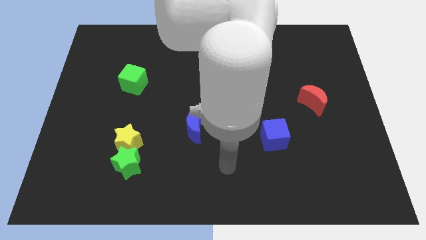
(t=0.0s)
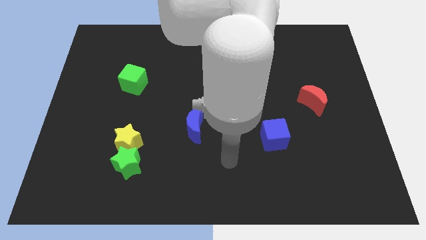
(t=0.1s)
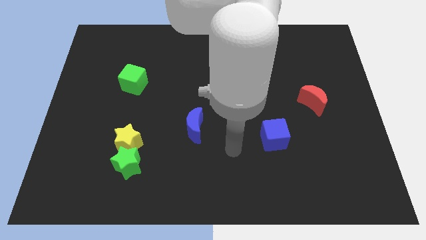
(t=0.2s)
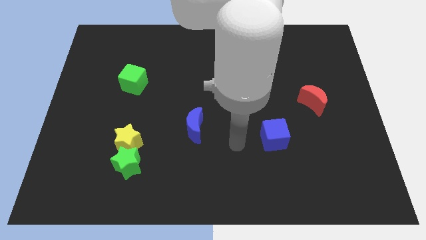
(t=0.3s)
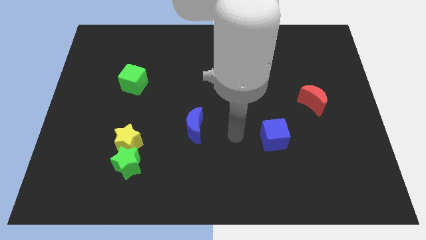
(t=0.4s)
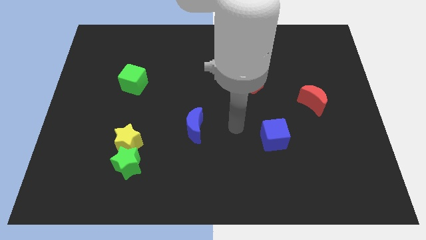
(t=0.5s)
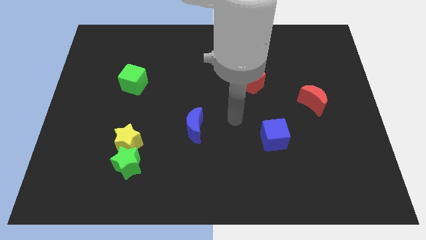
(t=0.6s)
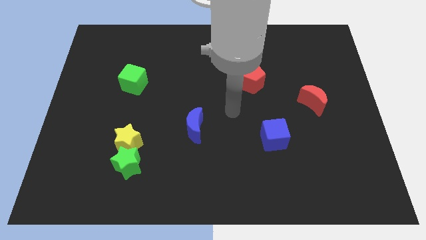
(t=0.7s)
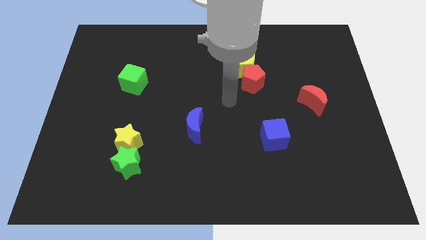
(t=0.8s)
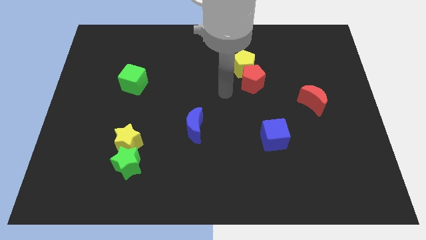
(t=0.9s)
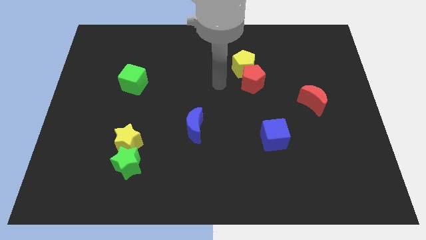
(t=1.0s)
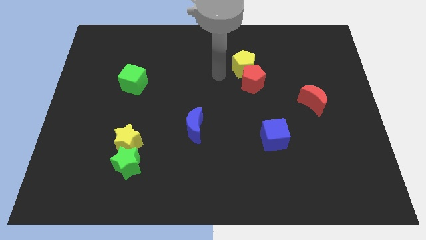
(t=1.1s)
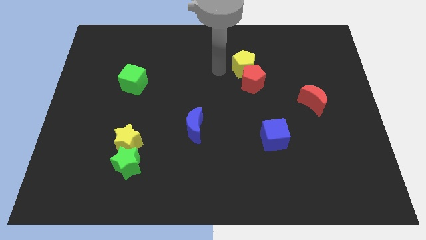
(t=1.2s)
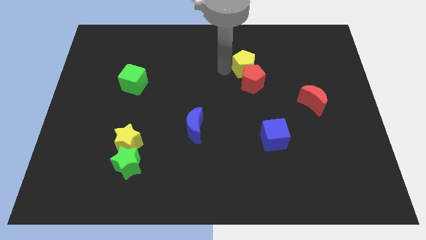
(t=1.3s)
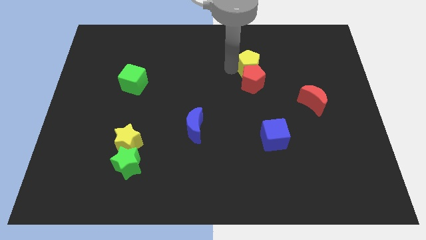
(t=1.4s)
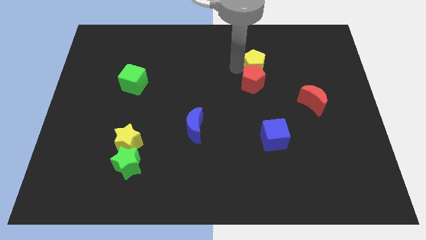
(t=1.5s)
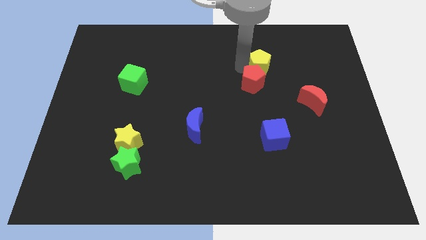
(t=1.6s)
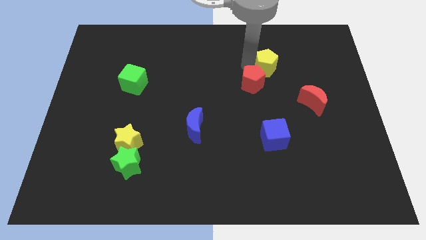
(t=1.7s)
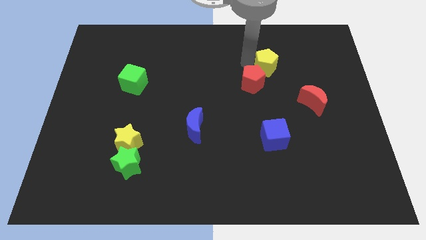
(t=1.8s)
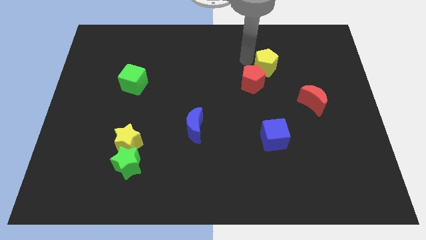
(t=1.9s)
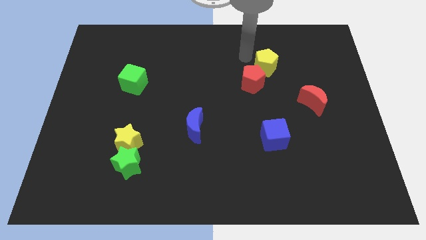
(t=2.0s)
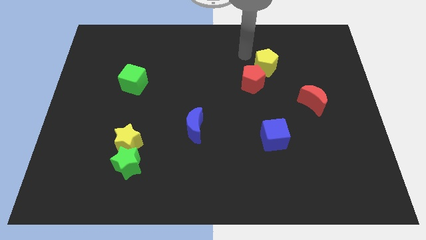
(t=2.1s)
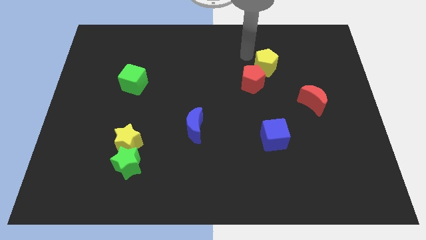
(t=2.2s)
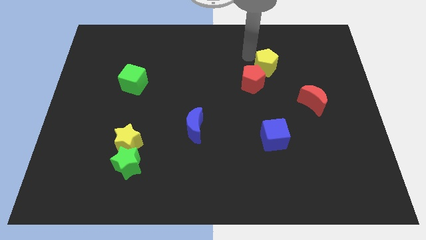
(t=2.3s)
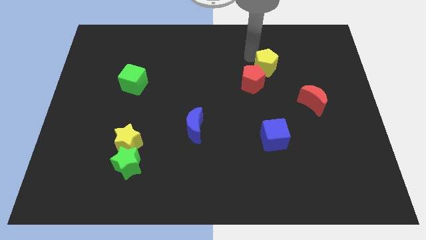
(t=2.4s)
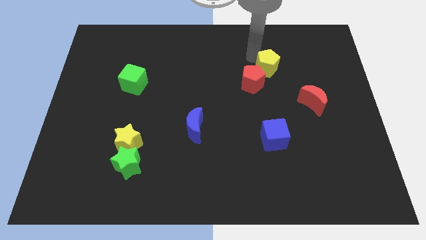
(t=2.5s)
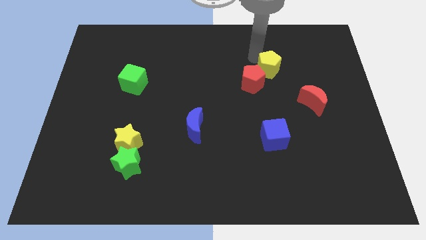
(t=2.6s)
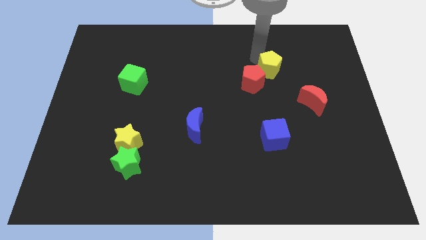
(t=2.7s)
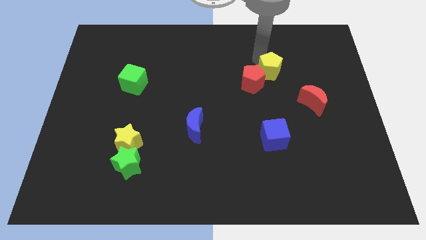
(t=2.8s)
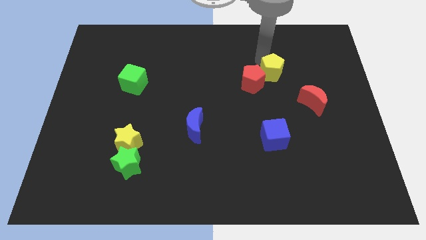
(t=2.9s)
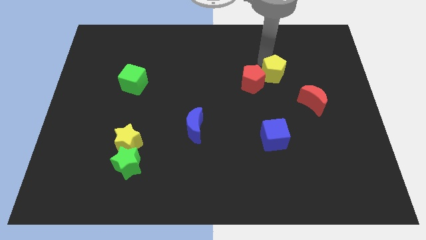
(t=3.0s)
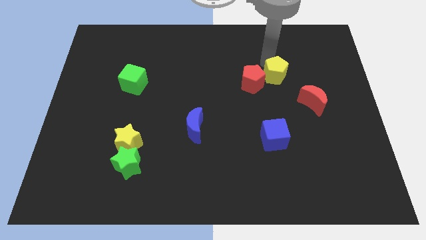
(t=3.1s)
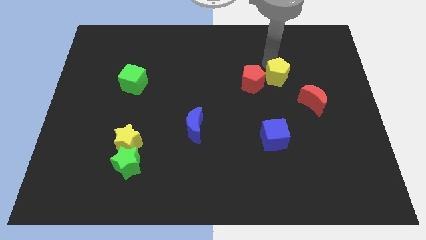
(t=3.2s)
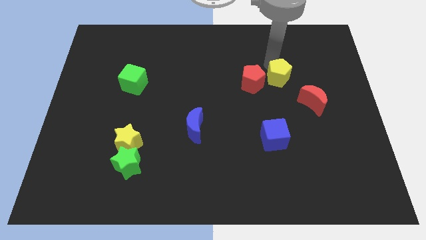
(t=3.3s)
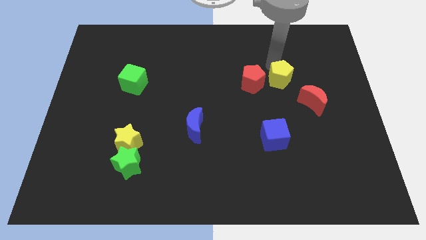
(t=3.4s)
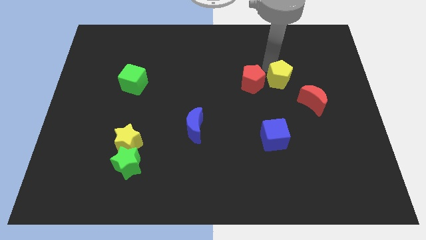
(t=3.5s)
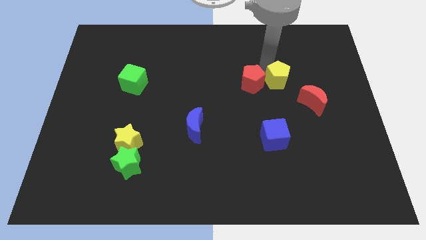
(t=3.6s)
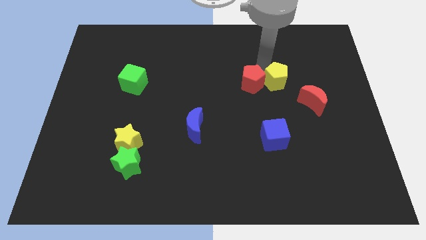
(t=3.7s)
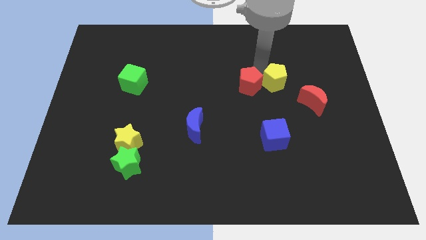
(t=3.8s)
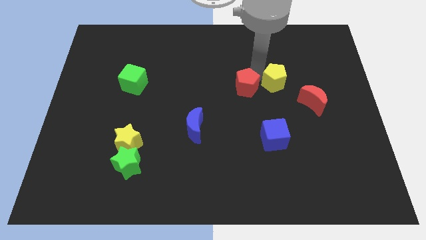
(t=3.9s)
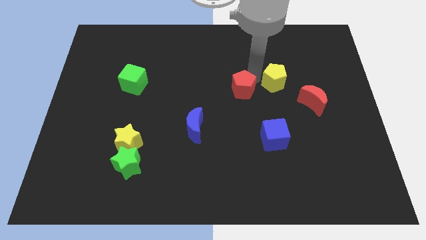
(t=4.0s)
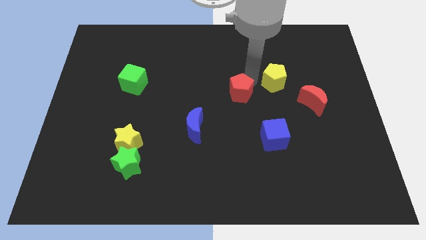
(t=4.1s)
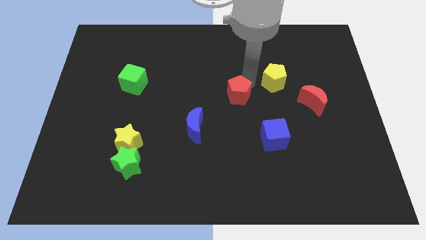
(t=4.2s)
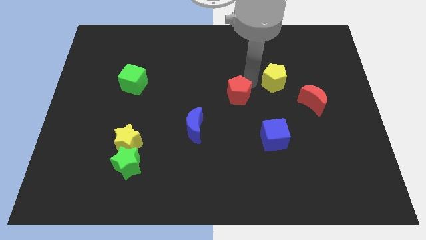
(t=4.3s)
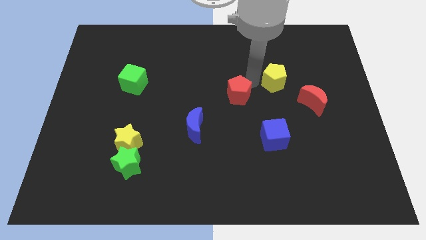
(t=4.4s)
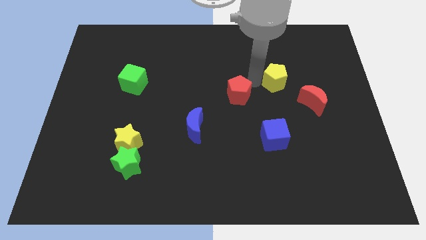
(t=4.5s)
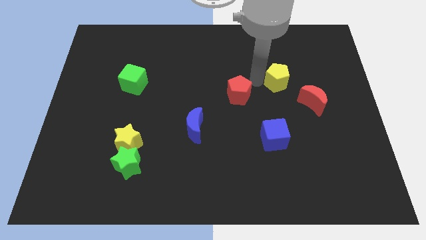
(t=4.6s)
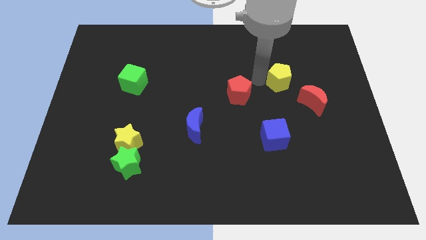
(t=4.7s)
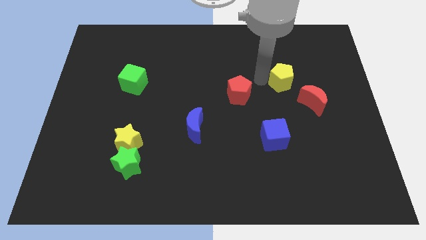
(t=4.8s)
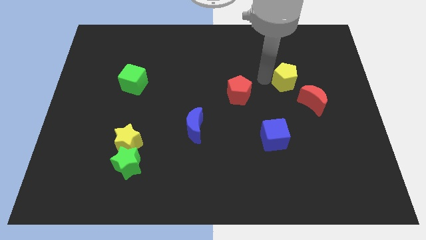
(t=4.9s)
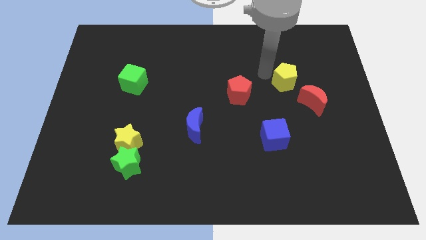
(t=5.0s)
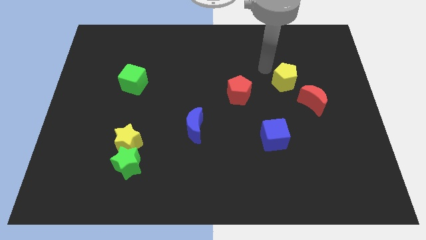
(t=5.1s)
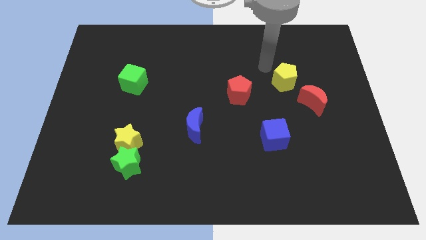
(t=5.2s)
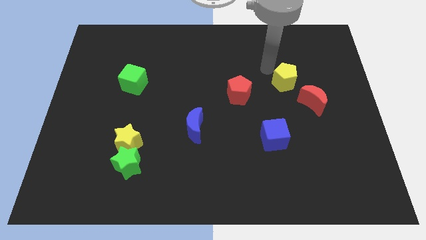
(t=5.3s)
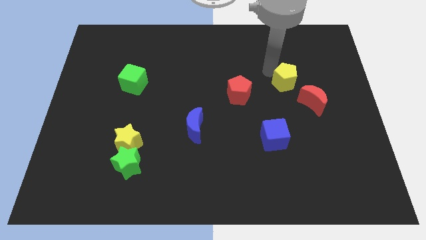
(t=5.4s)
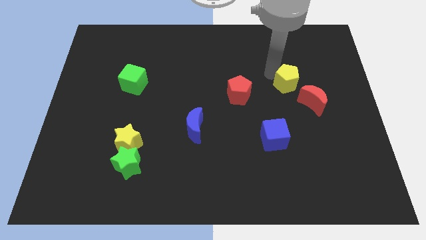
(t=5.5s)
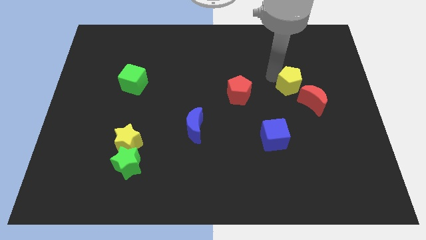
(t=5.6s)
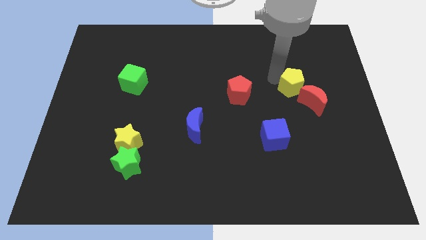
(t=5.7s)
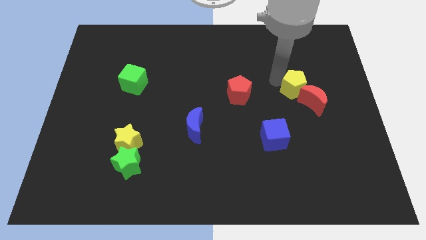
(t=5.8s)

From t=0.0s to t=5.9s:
push the yellow pentagon towards the red moon

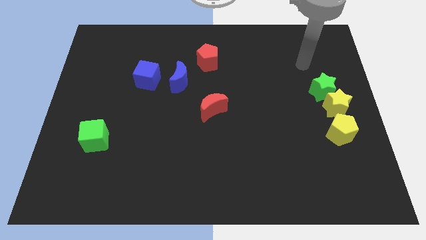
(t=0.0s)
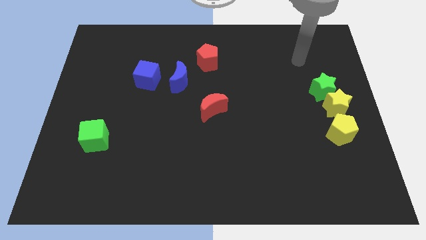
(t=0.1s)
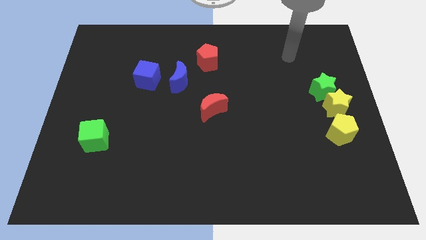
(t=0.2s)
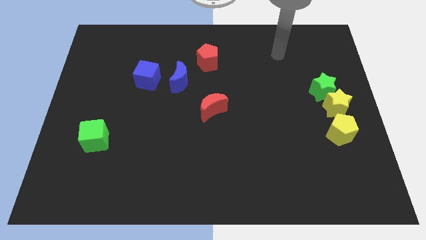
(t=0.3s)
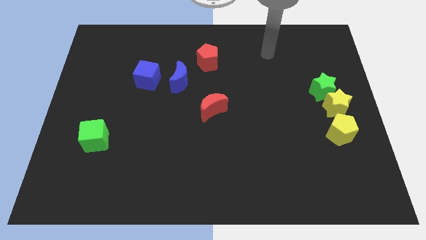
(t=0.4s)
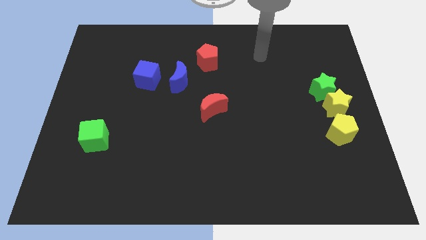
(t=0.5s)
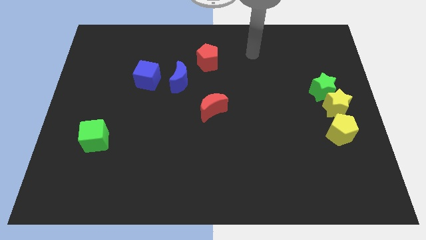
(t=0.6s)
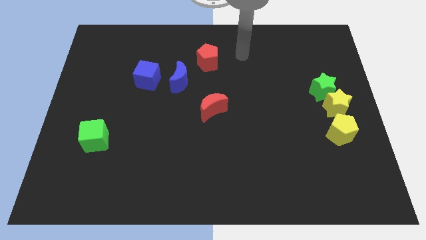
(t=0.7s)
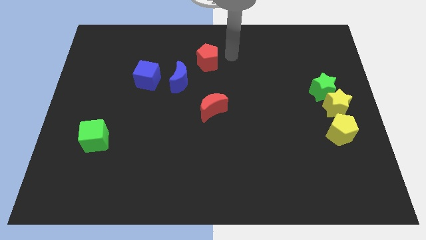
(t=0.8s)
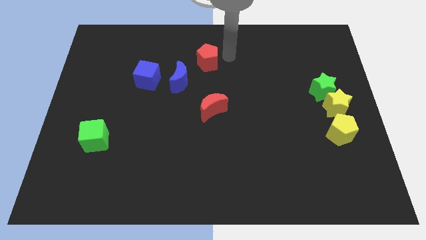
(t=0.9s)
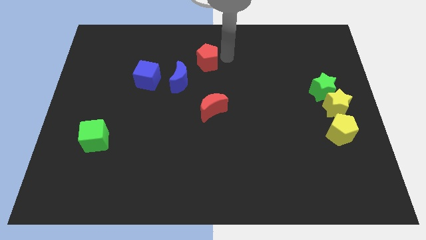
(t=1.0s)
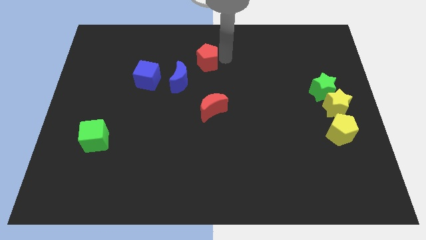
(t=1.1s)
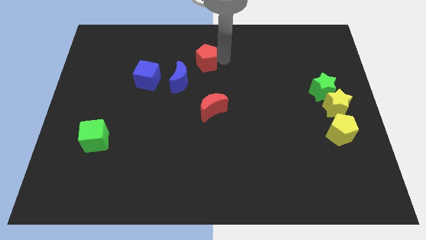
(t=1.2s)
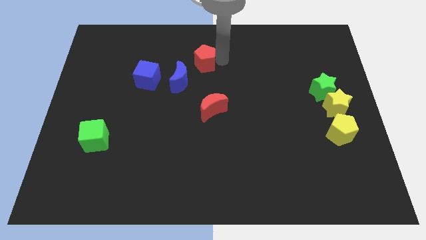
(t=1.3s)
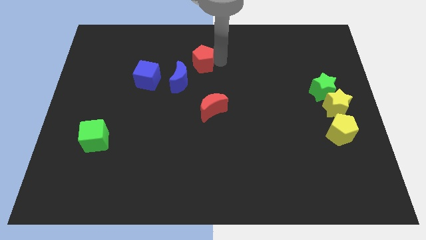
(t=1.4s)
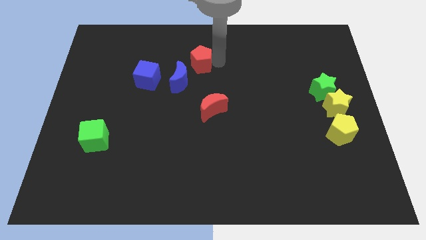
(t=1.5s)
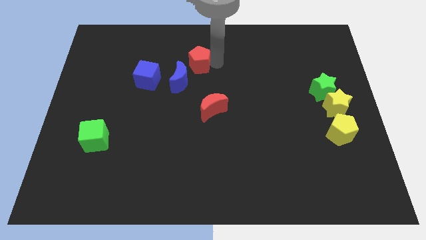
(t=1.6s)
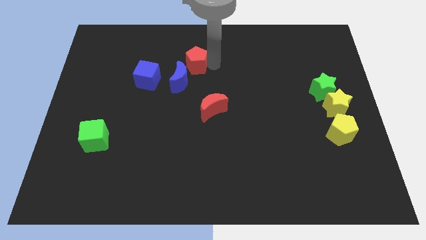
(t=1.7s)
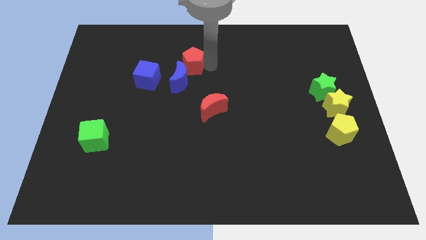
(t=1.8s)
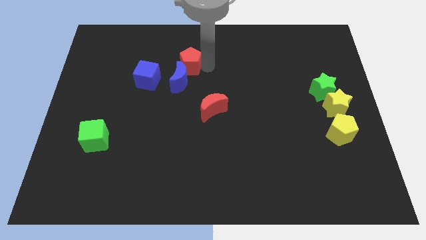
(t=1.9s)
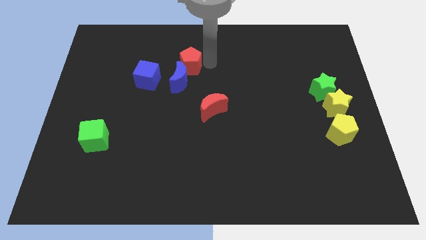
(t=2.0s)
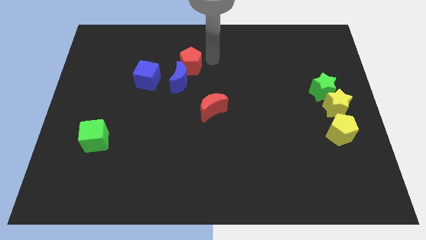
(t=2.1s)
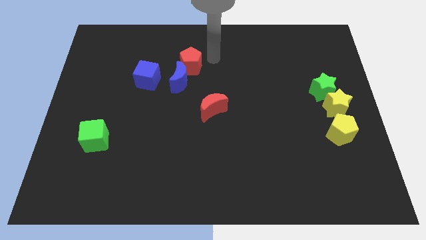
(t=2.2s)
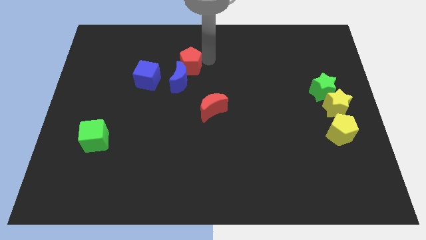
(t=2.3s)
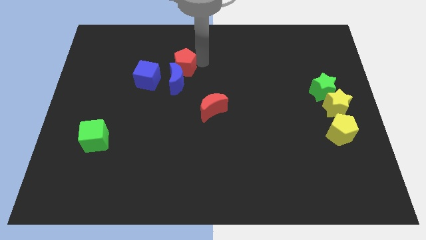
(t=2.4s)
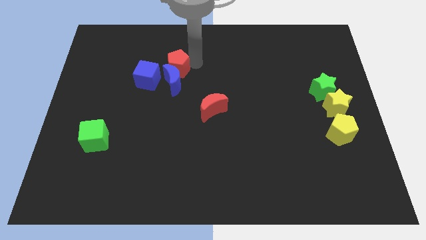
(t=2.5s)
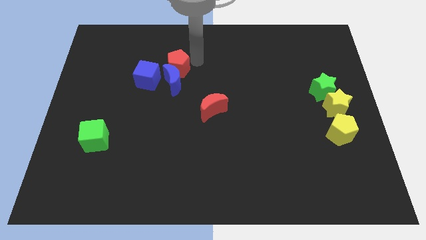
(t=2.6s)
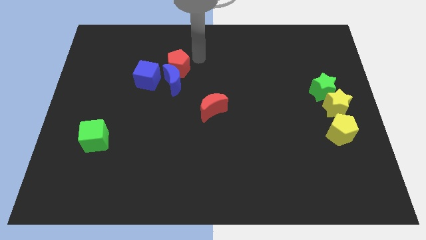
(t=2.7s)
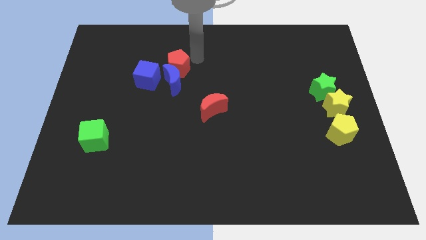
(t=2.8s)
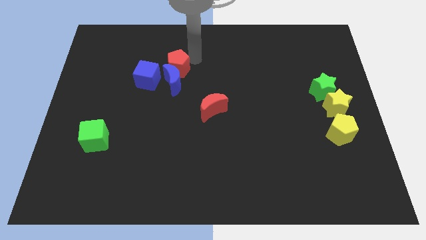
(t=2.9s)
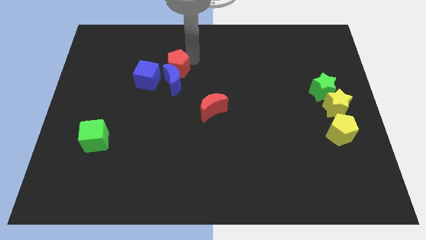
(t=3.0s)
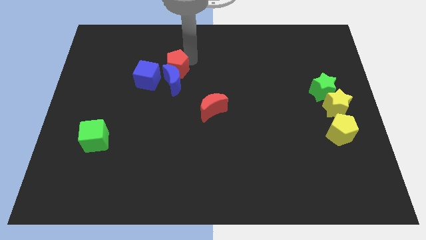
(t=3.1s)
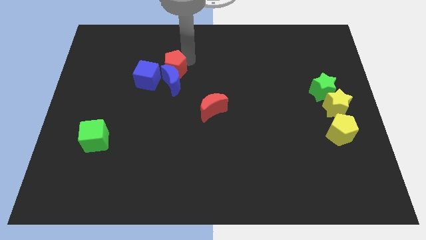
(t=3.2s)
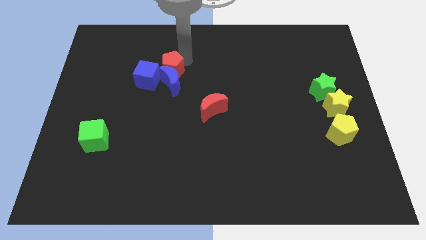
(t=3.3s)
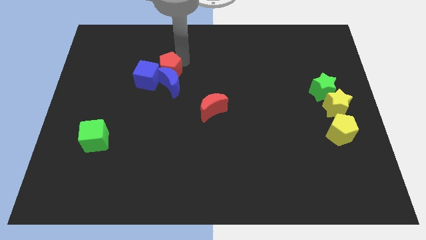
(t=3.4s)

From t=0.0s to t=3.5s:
put the red pentagon towards the blue cube
